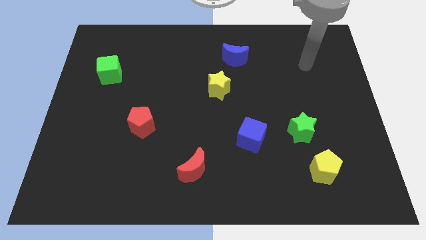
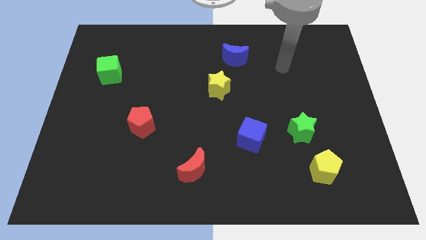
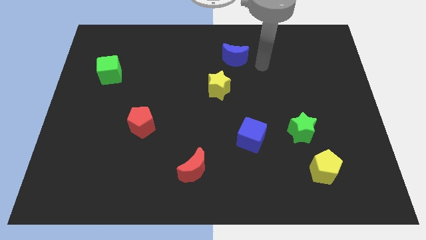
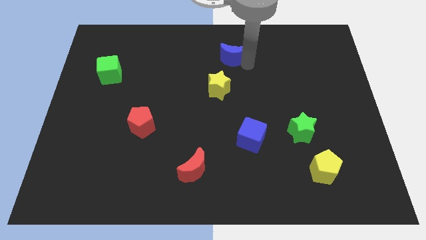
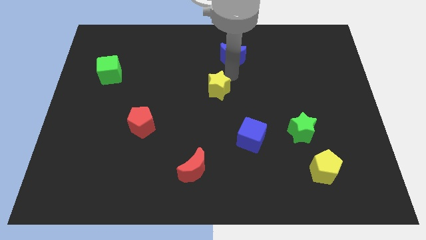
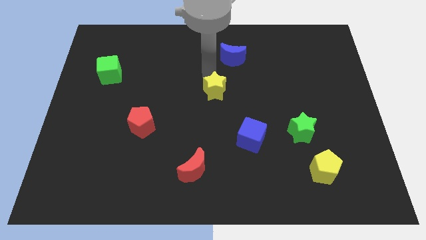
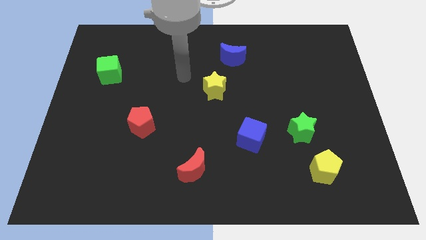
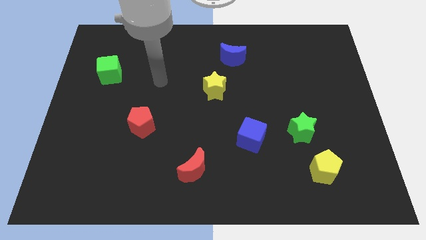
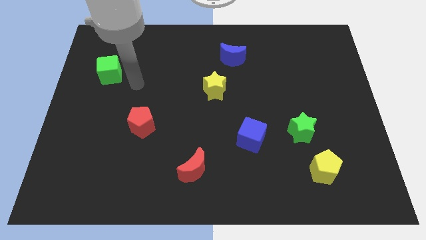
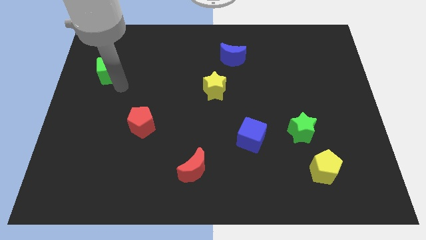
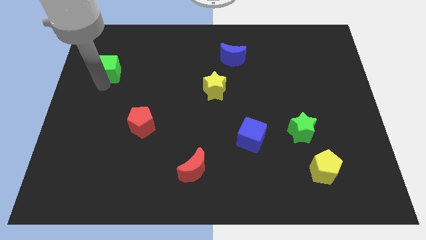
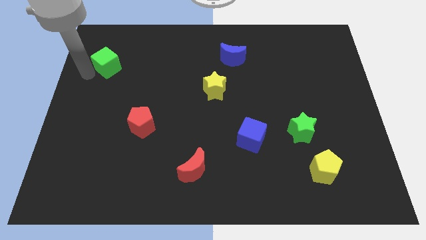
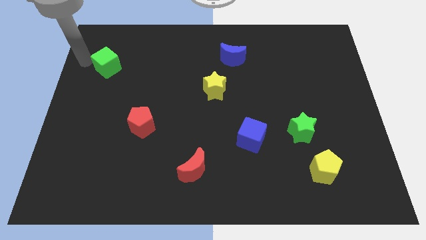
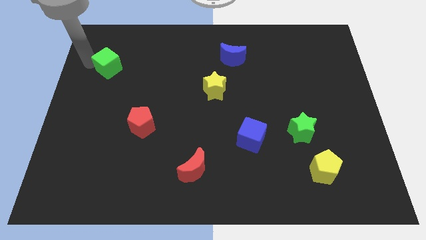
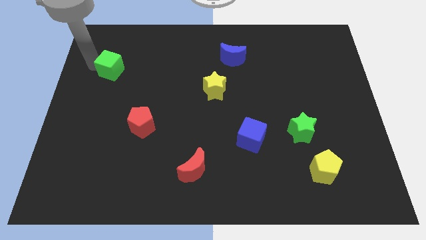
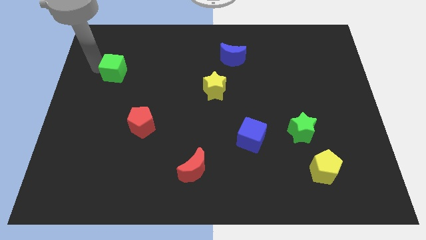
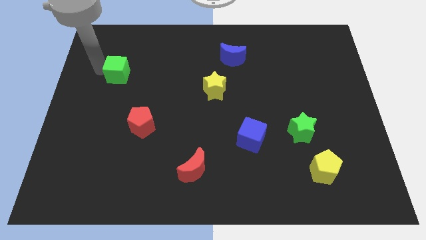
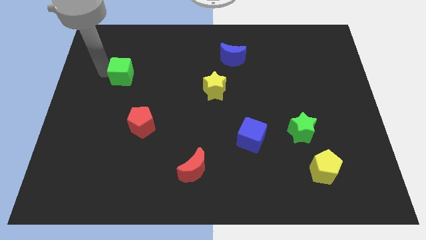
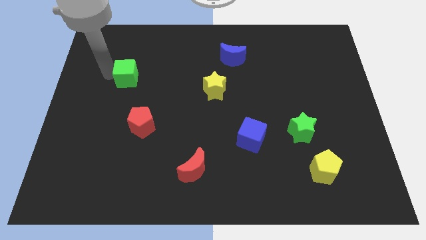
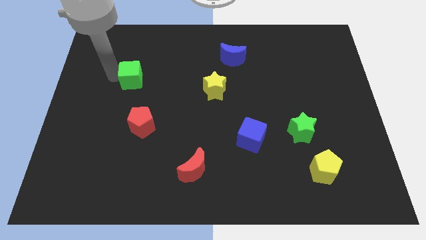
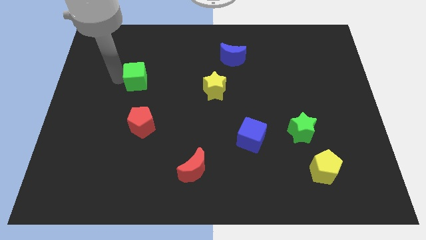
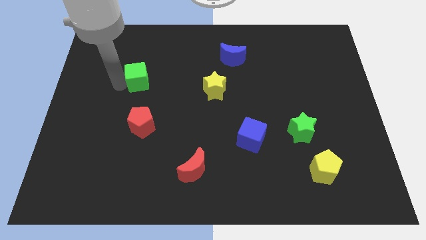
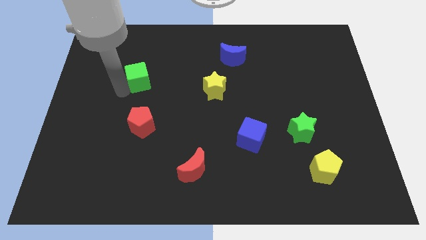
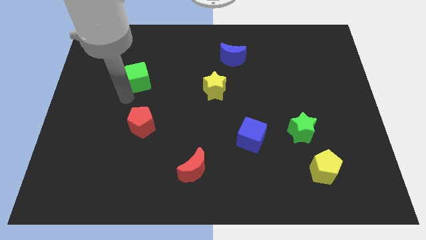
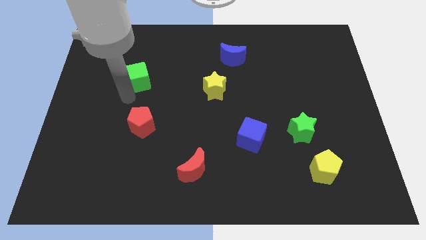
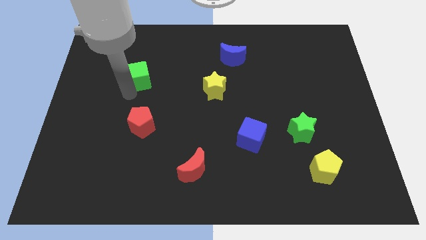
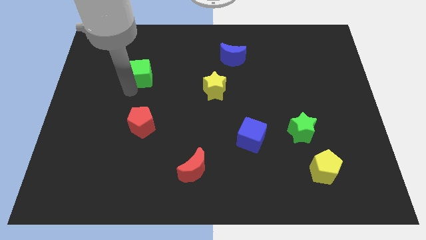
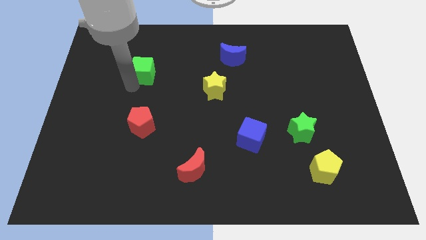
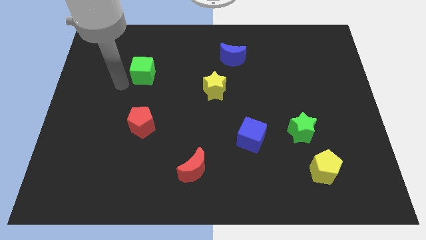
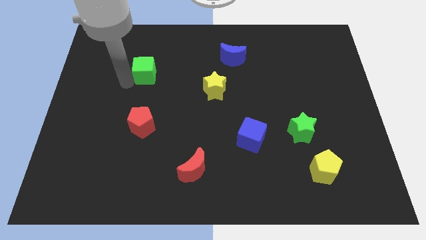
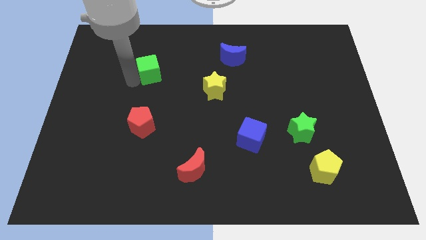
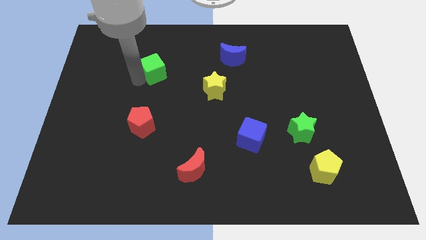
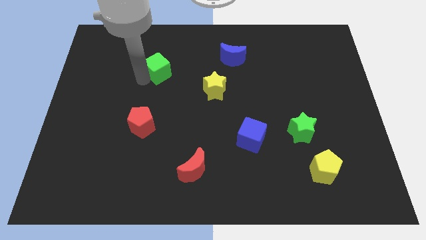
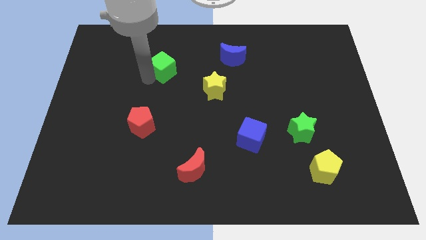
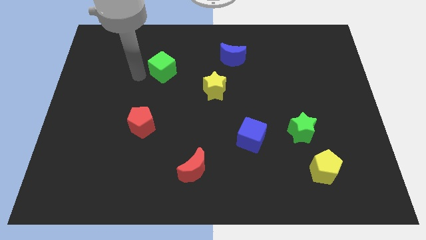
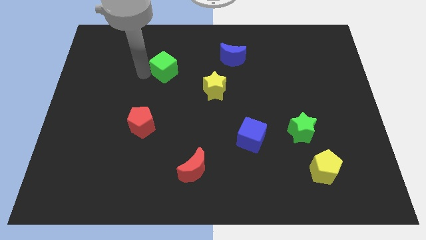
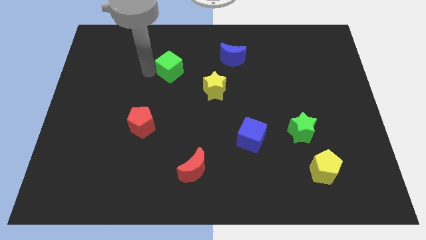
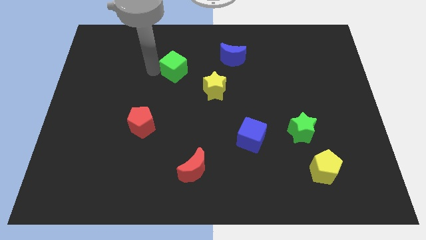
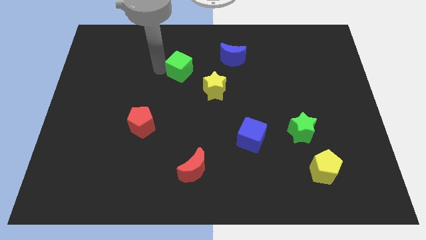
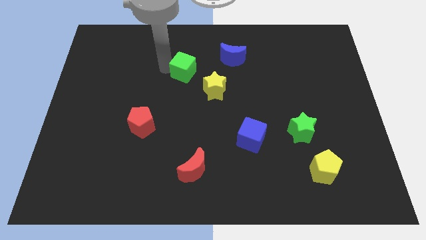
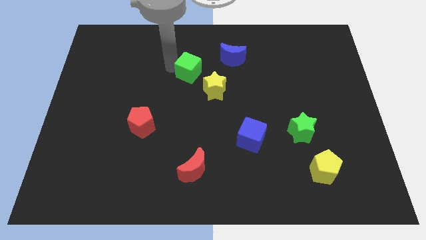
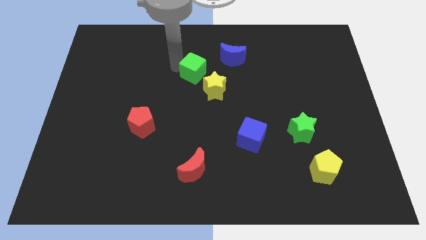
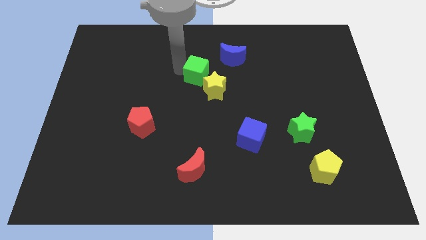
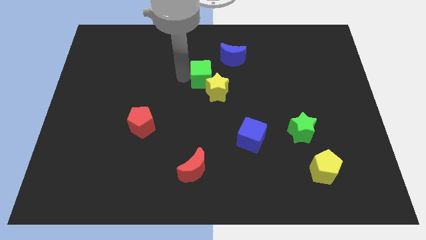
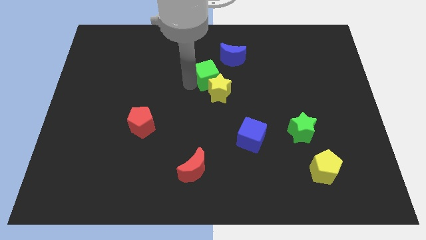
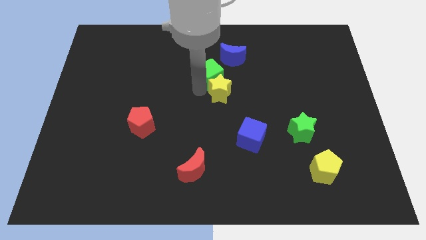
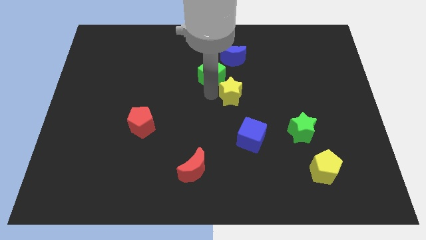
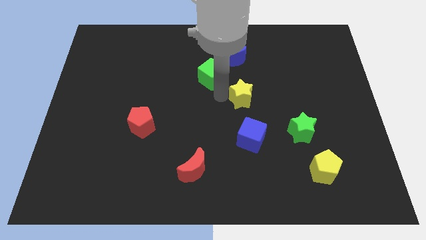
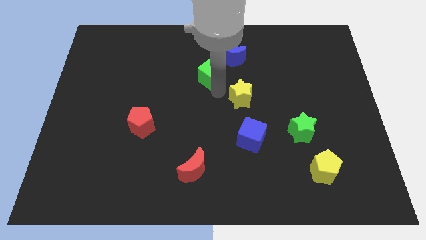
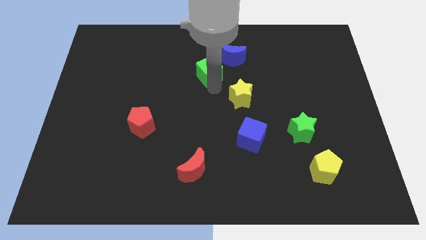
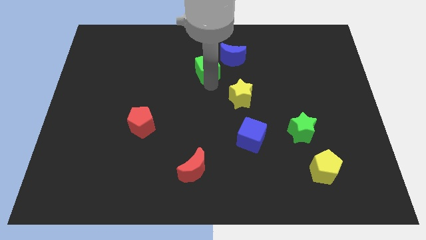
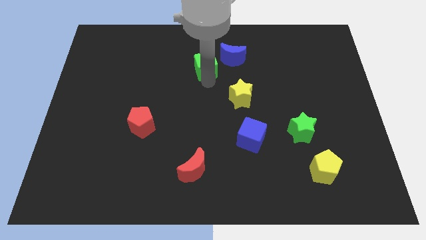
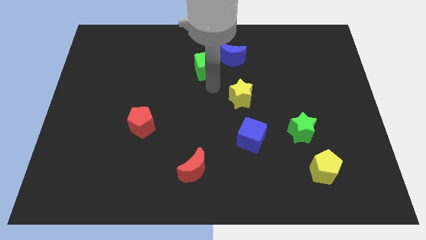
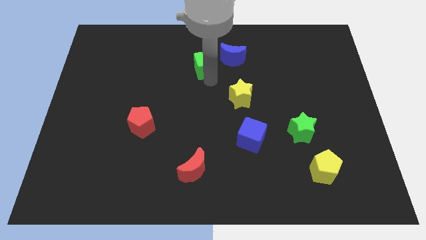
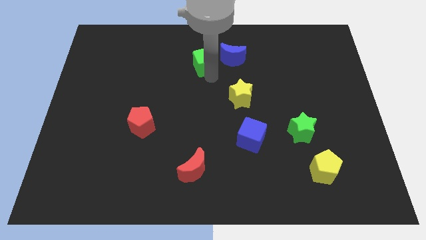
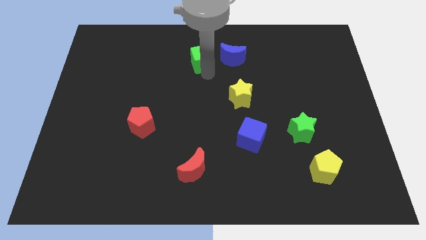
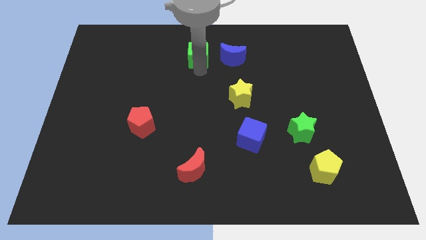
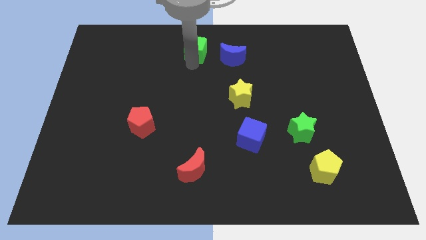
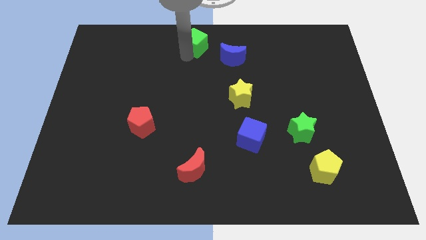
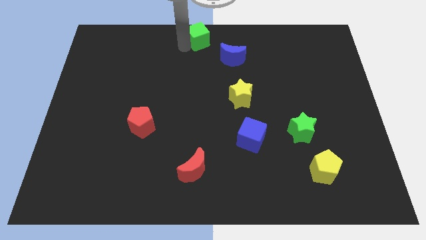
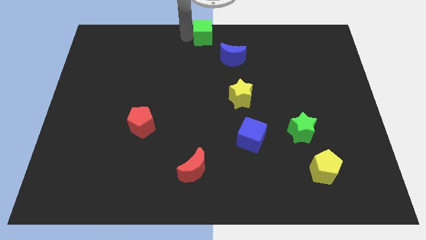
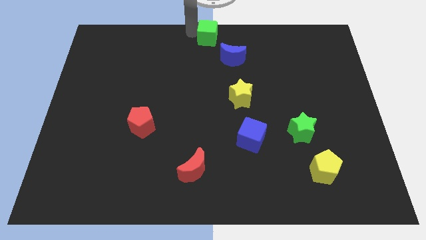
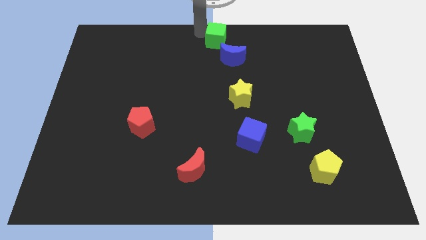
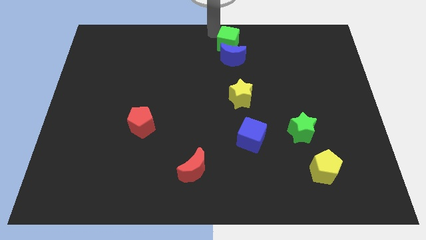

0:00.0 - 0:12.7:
push the green cube to the blue moon

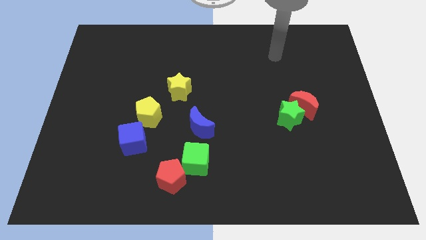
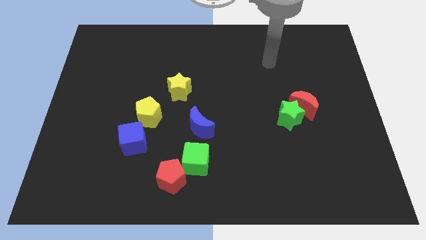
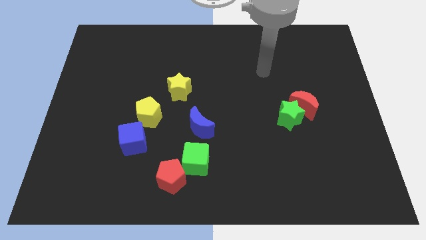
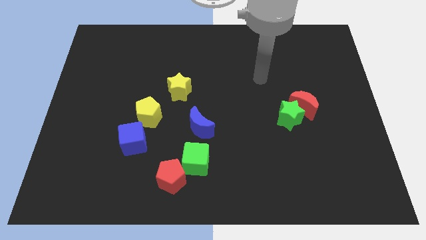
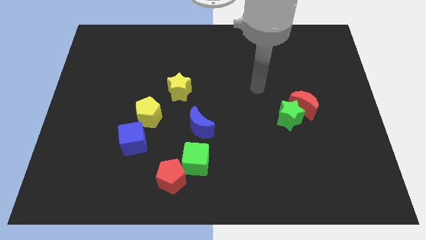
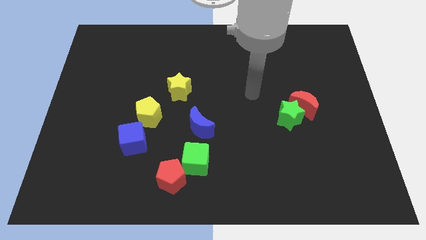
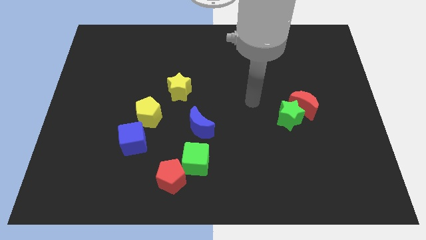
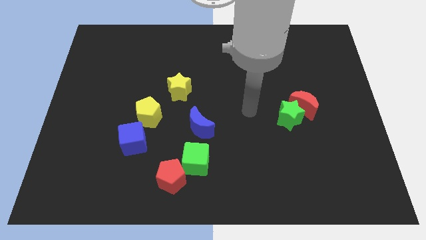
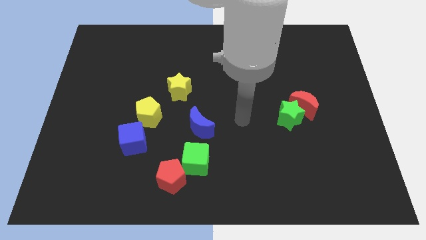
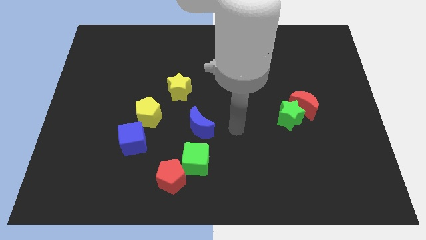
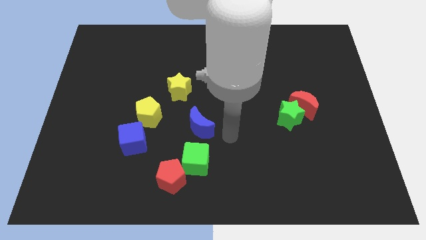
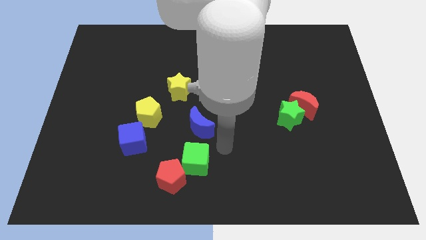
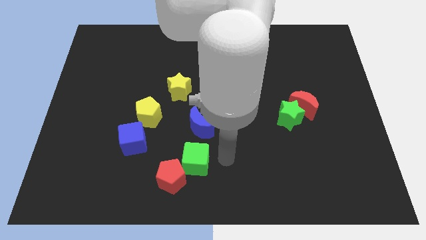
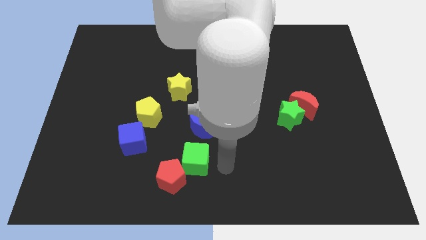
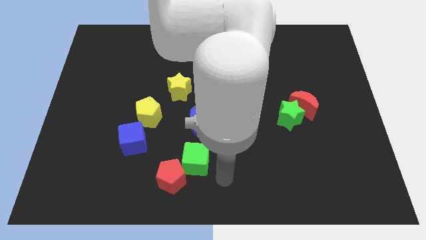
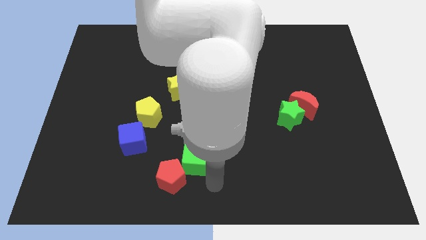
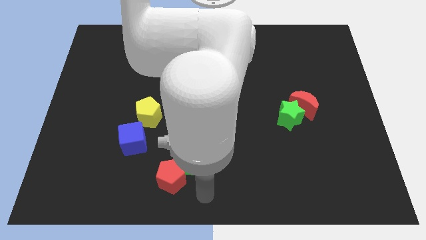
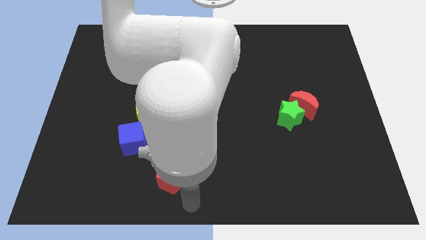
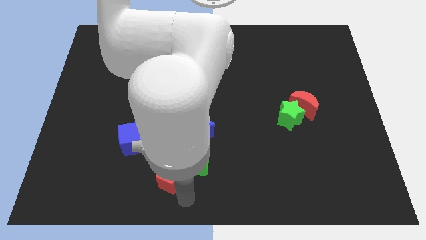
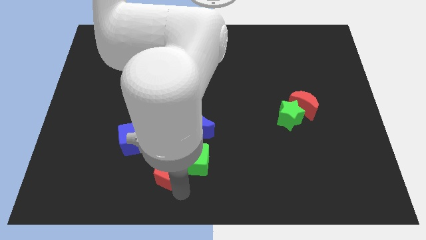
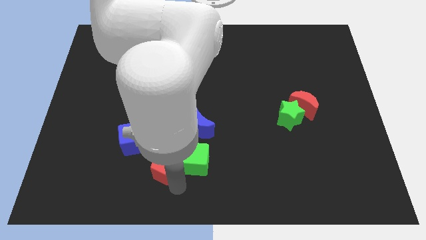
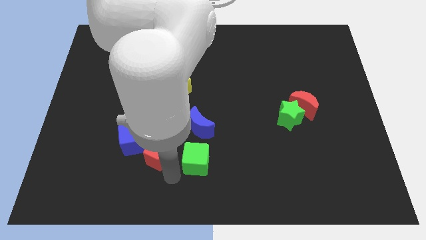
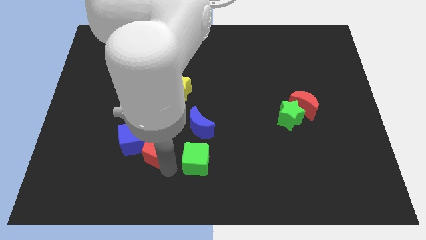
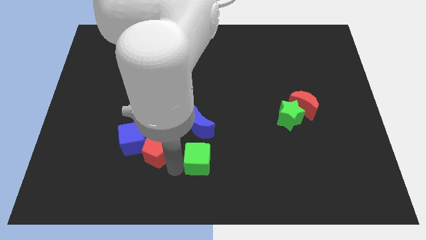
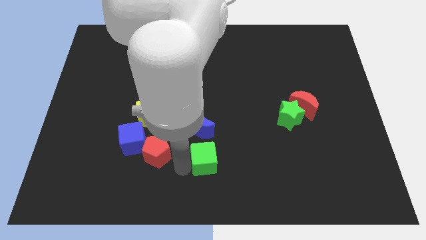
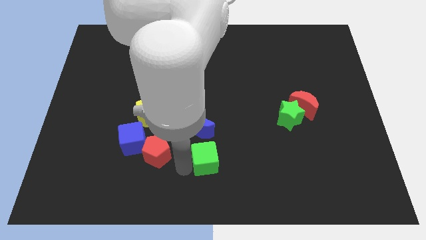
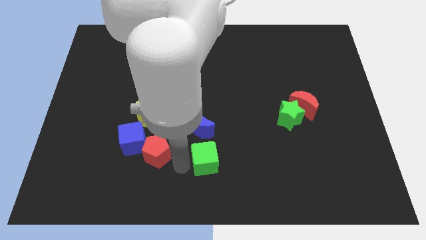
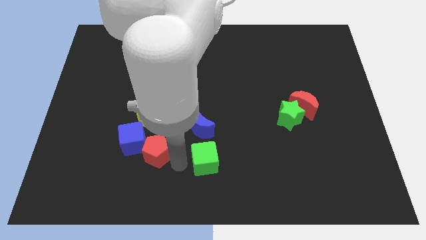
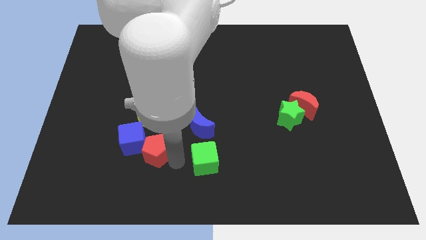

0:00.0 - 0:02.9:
put the red pentagon next to the blue cube
